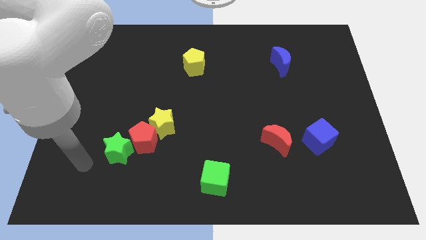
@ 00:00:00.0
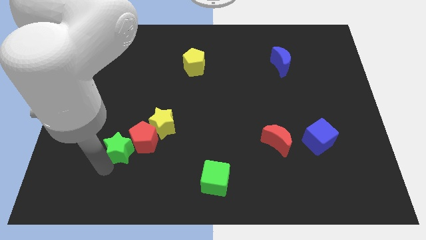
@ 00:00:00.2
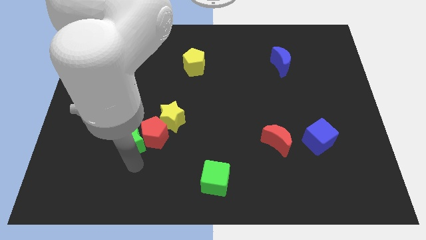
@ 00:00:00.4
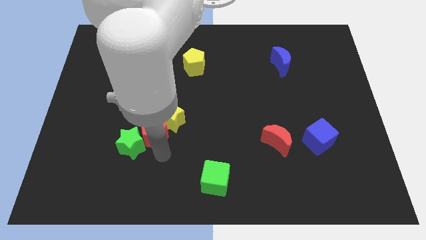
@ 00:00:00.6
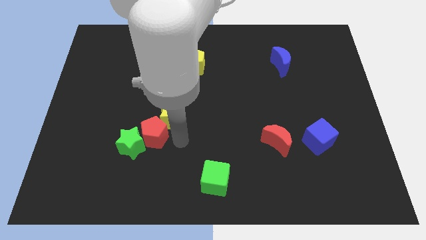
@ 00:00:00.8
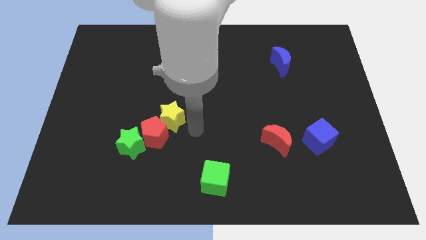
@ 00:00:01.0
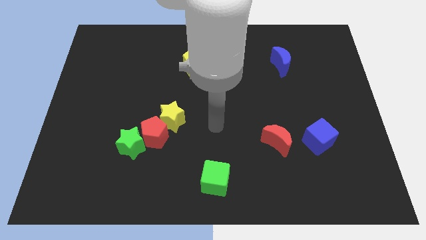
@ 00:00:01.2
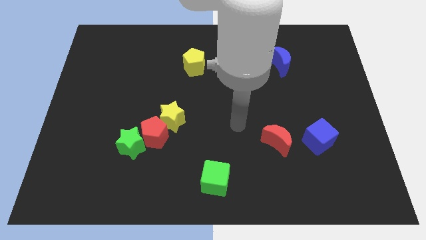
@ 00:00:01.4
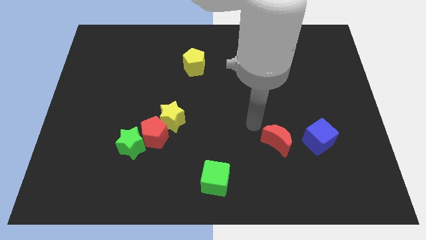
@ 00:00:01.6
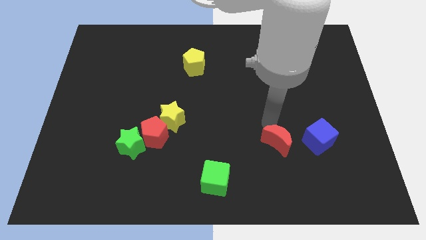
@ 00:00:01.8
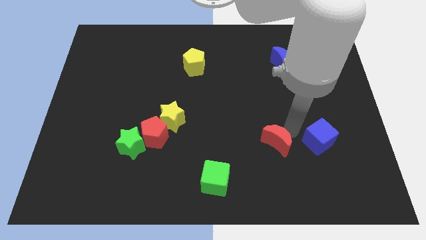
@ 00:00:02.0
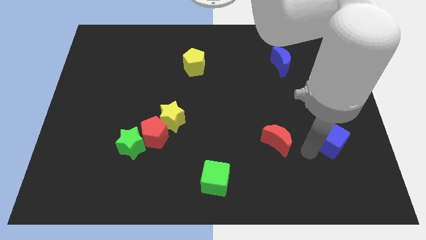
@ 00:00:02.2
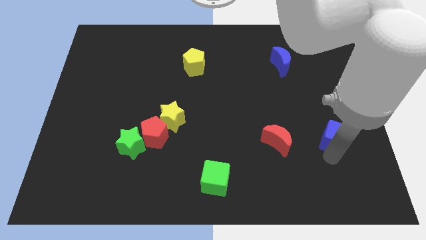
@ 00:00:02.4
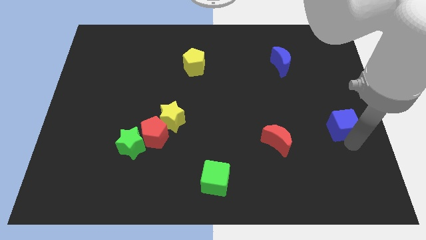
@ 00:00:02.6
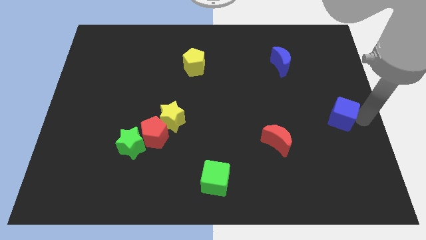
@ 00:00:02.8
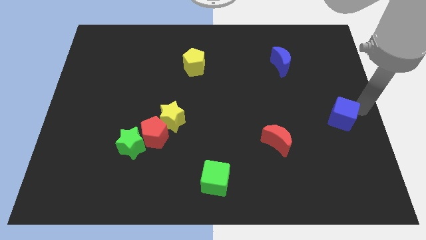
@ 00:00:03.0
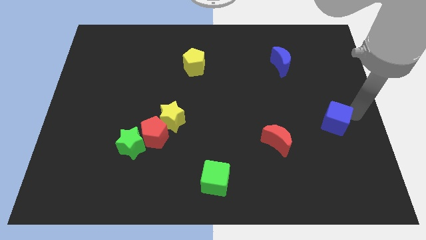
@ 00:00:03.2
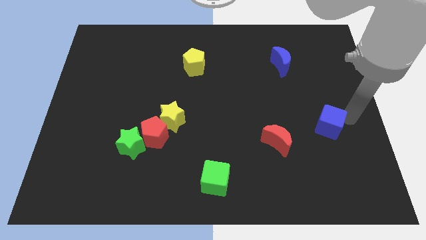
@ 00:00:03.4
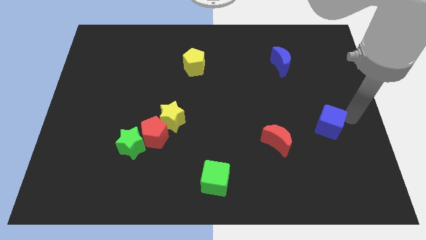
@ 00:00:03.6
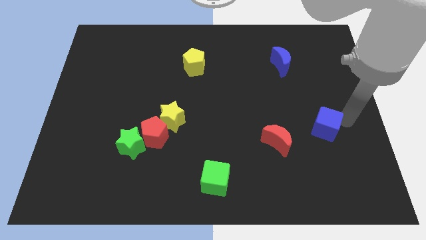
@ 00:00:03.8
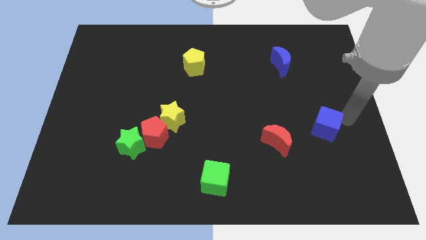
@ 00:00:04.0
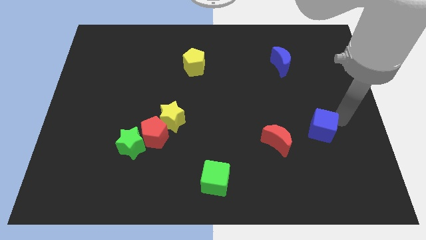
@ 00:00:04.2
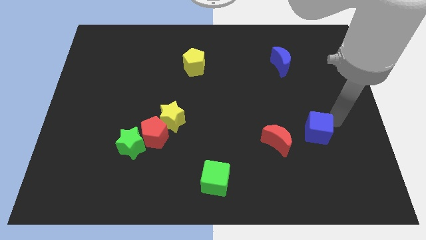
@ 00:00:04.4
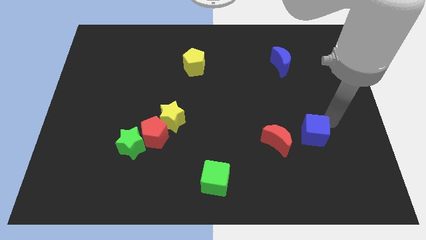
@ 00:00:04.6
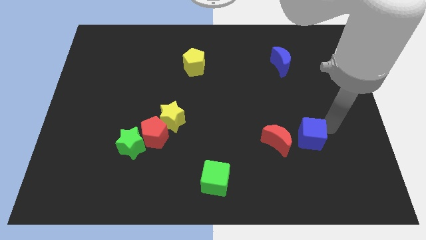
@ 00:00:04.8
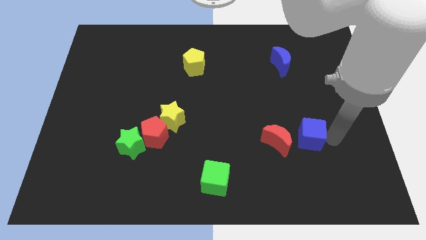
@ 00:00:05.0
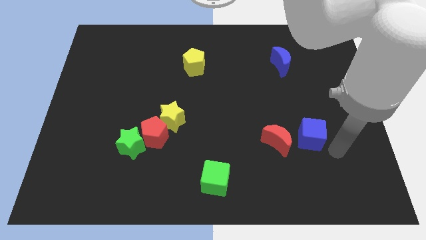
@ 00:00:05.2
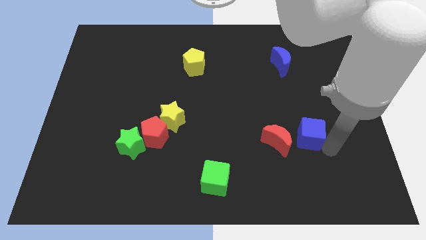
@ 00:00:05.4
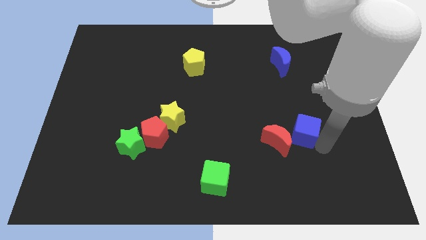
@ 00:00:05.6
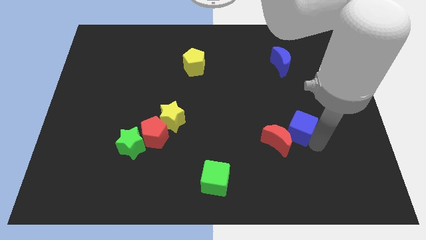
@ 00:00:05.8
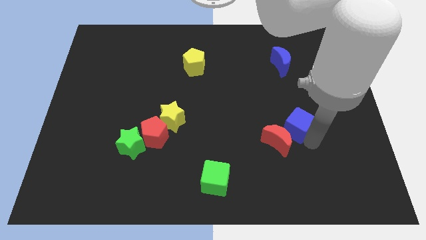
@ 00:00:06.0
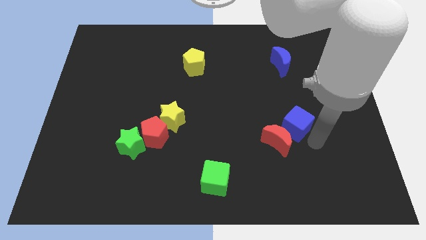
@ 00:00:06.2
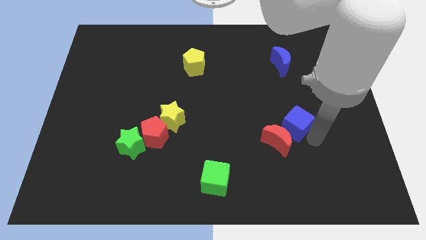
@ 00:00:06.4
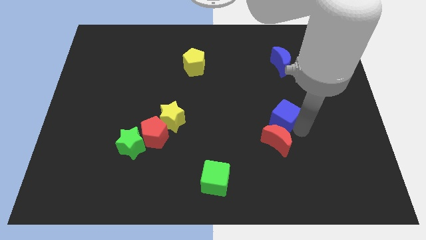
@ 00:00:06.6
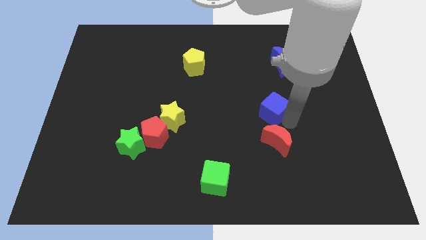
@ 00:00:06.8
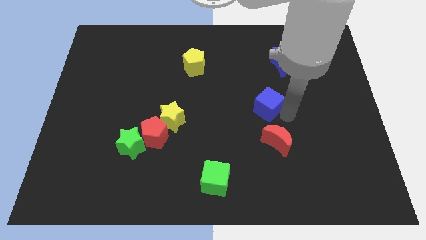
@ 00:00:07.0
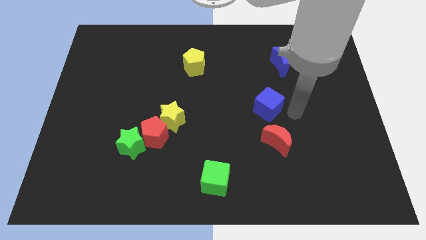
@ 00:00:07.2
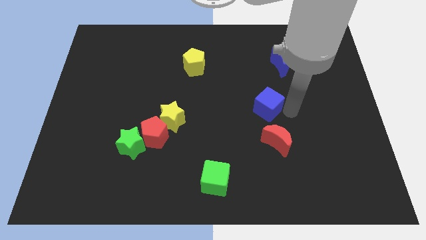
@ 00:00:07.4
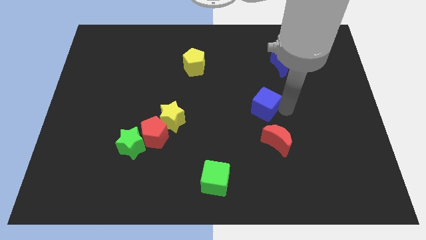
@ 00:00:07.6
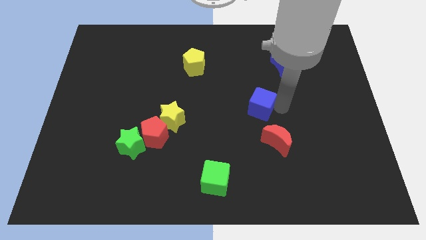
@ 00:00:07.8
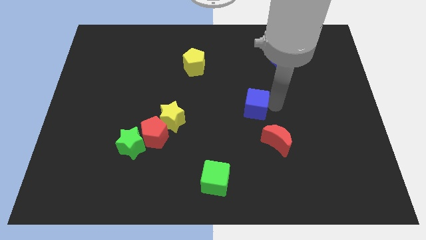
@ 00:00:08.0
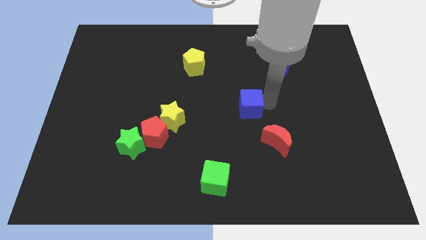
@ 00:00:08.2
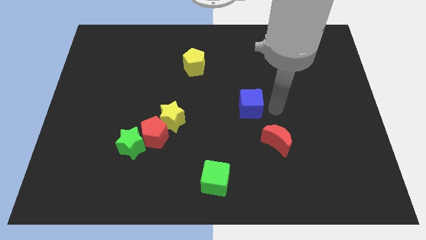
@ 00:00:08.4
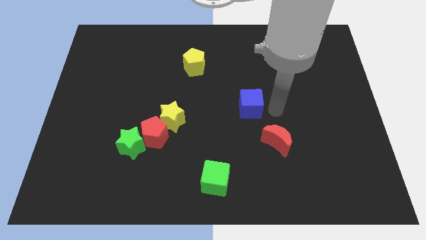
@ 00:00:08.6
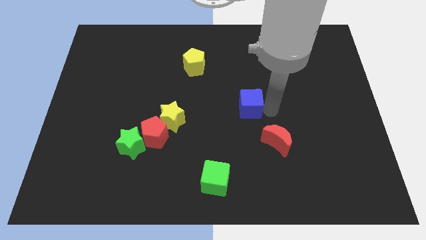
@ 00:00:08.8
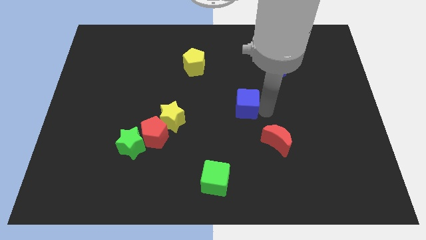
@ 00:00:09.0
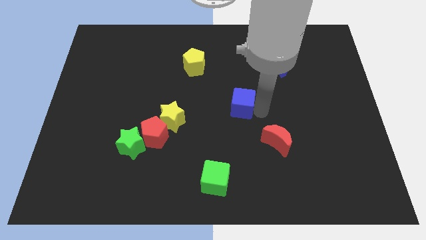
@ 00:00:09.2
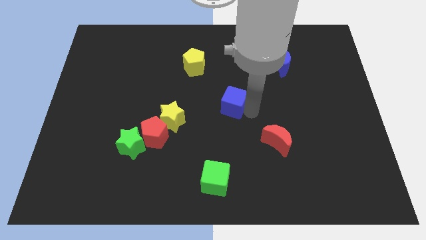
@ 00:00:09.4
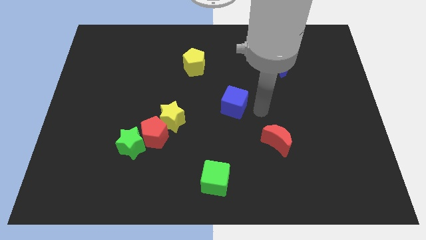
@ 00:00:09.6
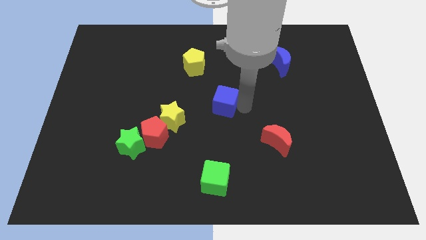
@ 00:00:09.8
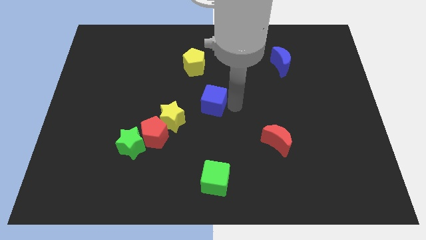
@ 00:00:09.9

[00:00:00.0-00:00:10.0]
move the blue cube below the yellow pentagon

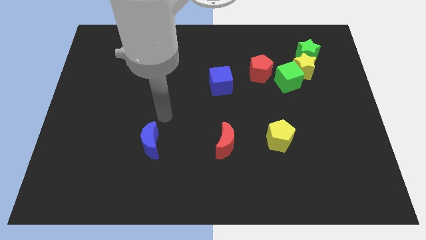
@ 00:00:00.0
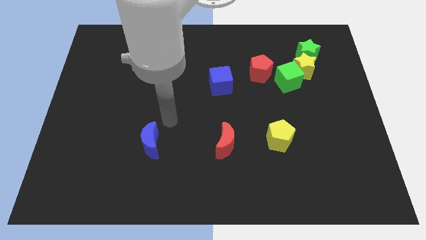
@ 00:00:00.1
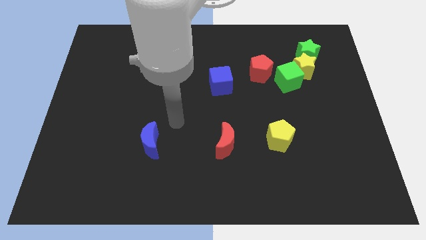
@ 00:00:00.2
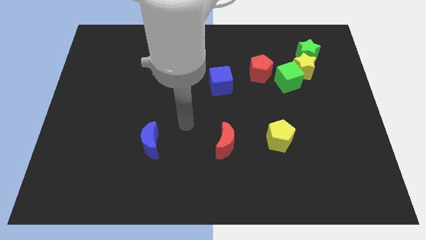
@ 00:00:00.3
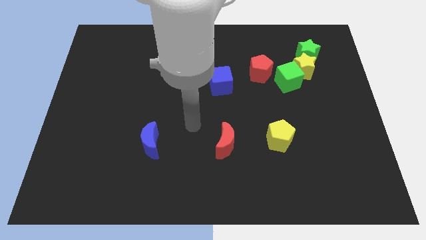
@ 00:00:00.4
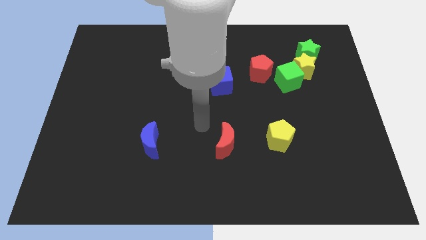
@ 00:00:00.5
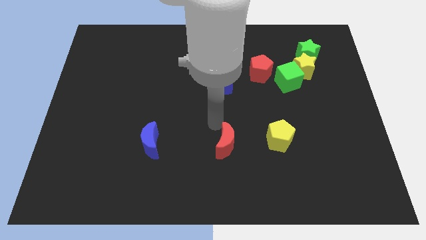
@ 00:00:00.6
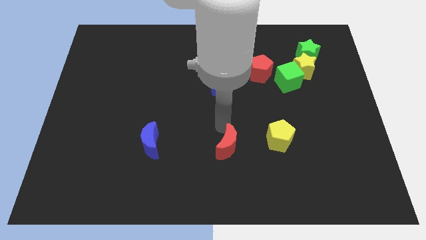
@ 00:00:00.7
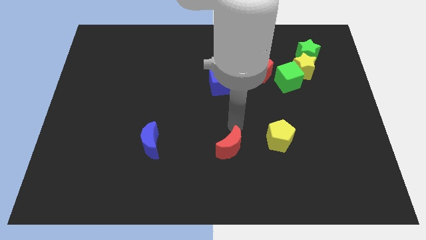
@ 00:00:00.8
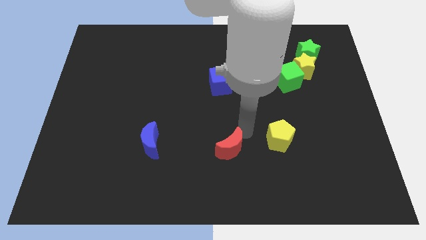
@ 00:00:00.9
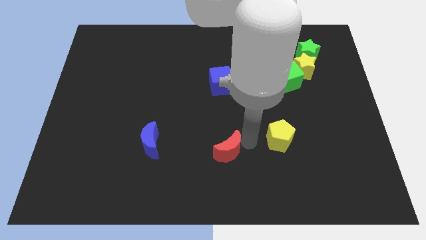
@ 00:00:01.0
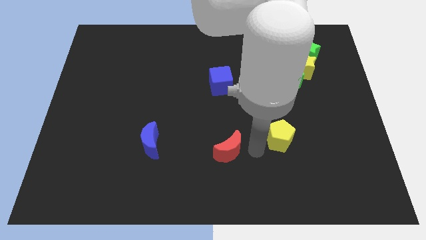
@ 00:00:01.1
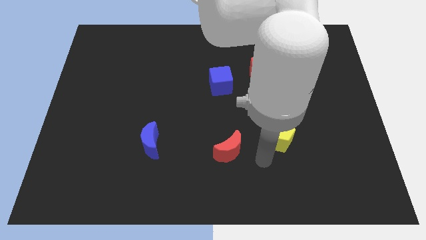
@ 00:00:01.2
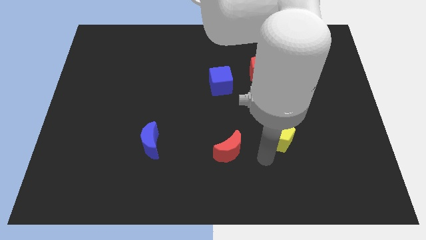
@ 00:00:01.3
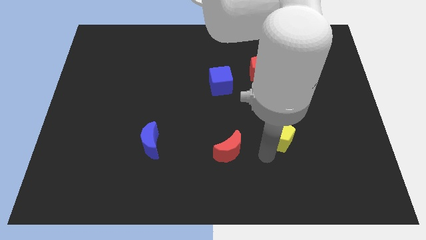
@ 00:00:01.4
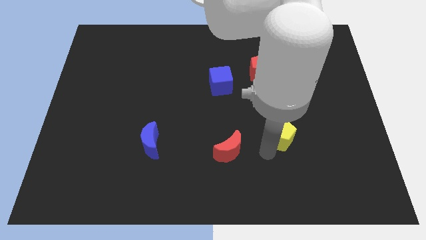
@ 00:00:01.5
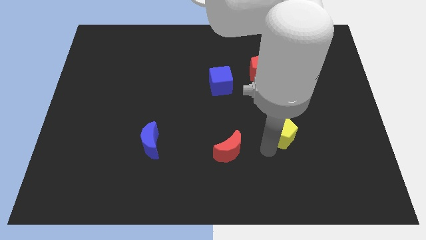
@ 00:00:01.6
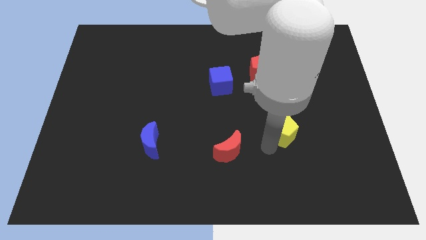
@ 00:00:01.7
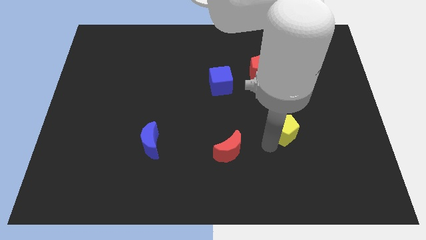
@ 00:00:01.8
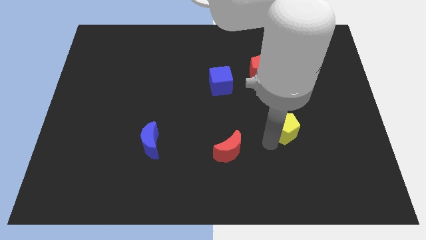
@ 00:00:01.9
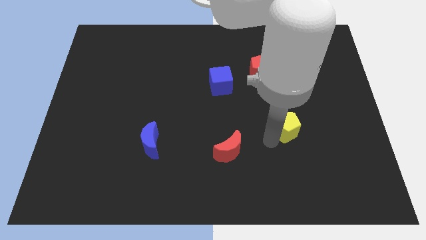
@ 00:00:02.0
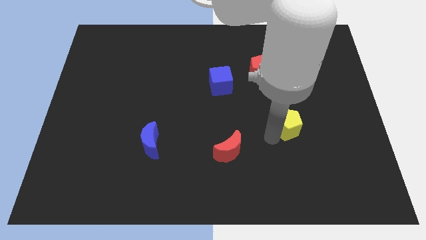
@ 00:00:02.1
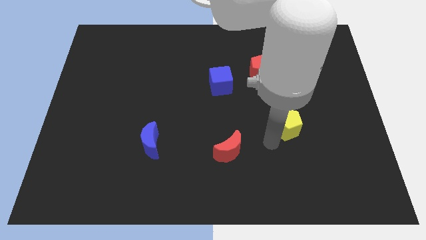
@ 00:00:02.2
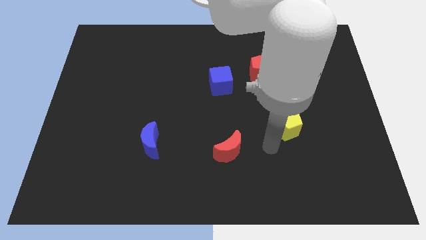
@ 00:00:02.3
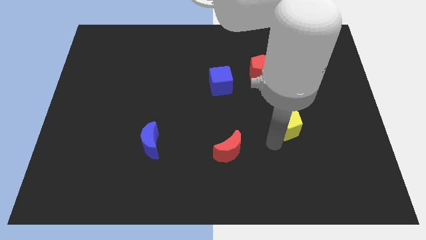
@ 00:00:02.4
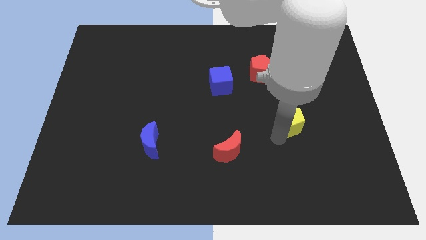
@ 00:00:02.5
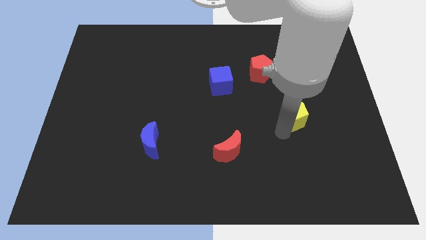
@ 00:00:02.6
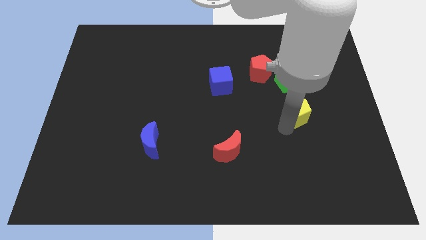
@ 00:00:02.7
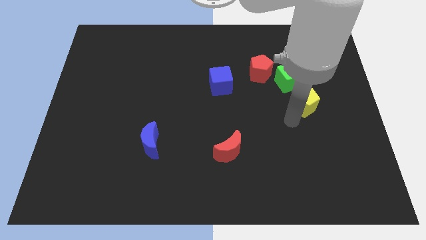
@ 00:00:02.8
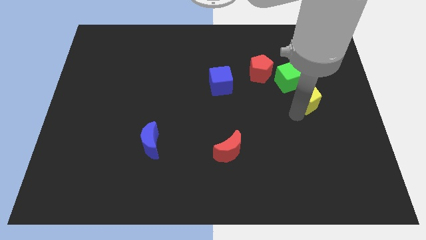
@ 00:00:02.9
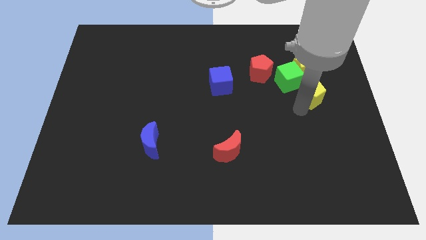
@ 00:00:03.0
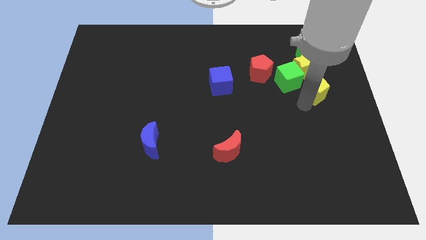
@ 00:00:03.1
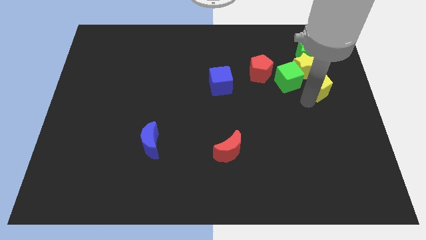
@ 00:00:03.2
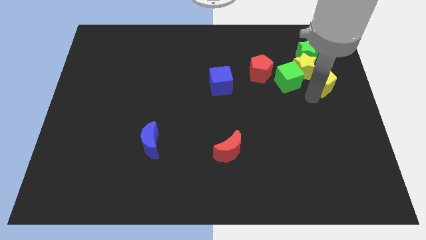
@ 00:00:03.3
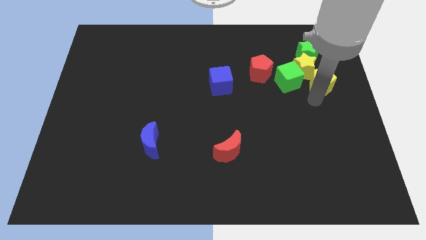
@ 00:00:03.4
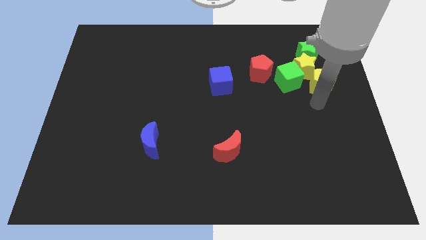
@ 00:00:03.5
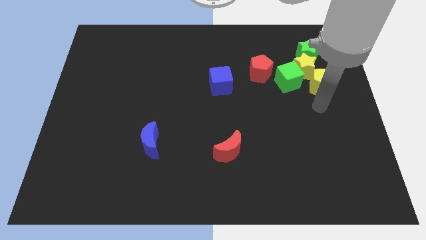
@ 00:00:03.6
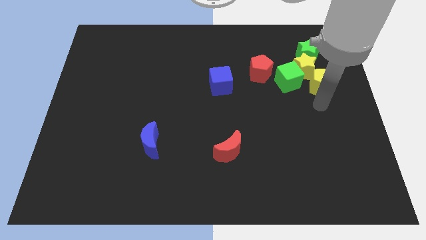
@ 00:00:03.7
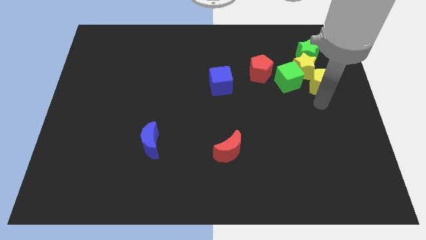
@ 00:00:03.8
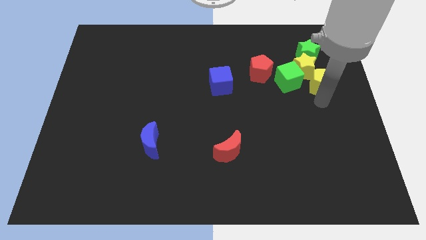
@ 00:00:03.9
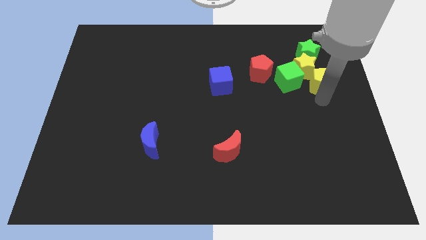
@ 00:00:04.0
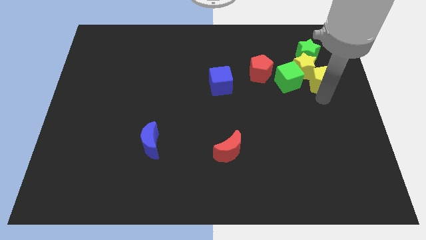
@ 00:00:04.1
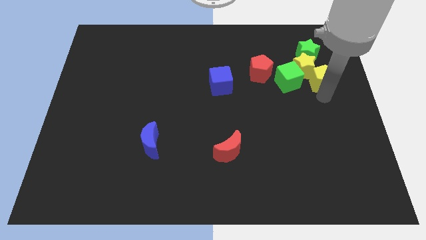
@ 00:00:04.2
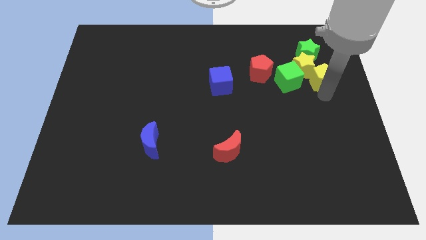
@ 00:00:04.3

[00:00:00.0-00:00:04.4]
push the yellow pentagon to the right of the red pentagon
